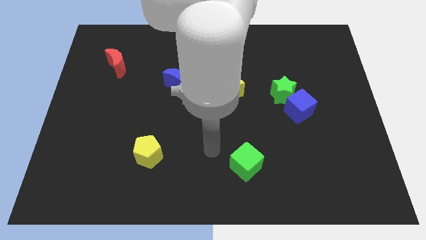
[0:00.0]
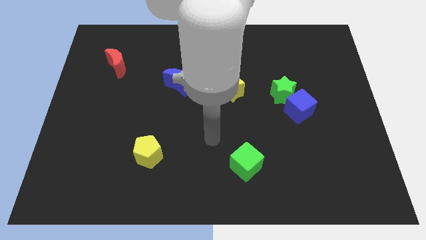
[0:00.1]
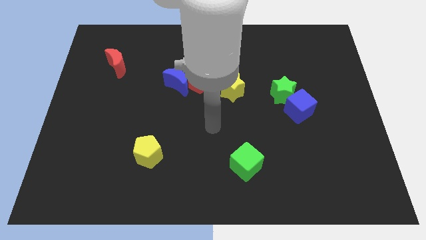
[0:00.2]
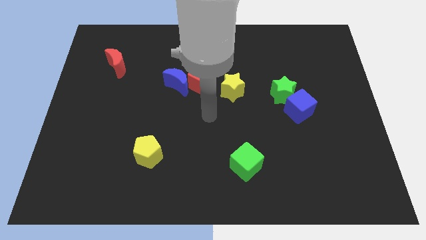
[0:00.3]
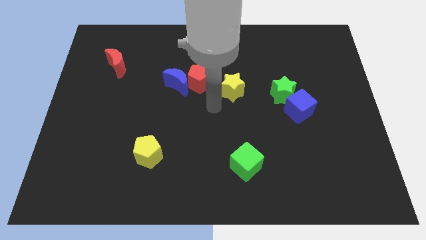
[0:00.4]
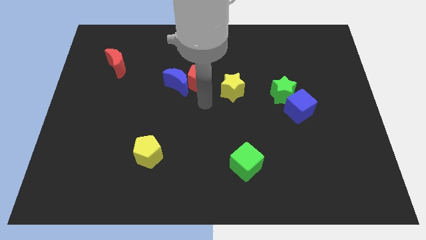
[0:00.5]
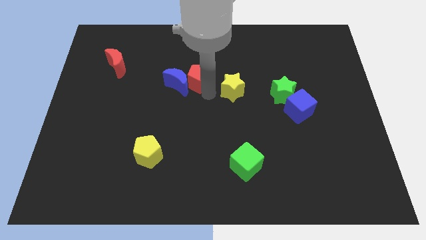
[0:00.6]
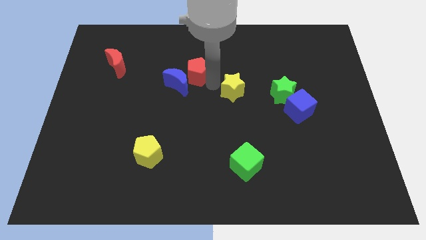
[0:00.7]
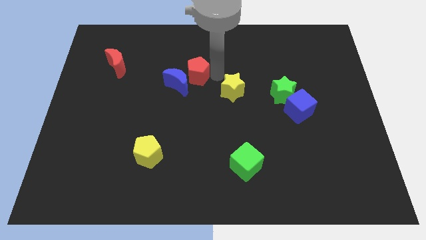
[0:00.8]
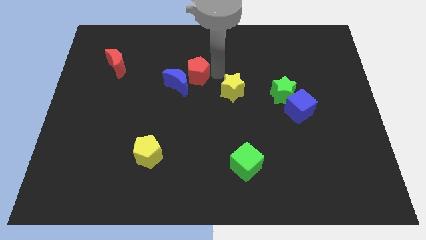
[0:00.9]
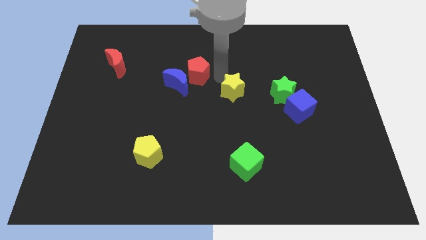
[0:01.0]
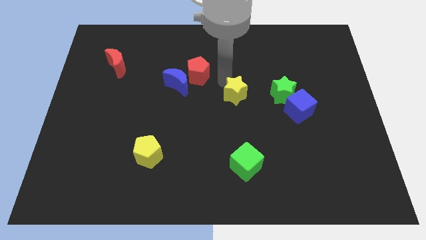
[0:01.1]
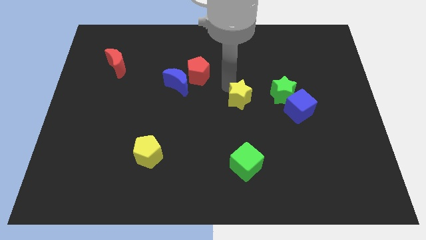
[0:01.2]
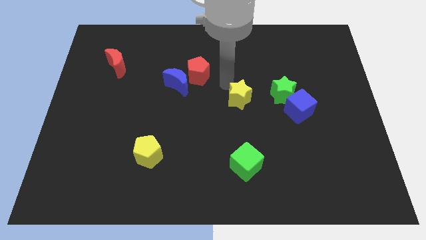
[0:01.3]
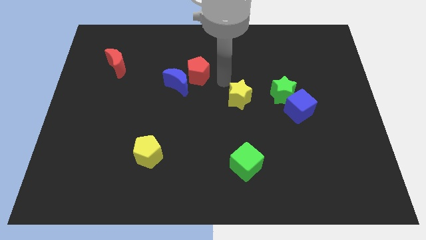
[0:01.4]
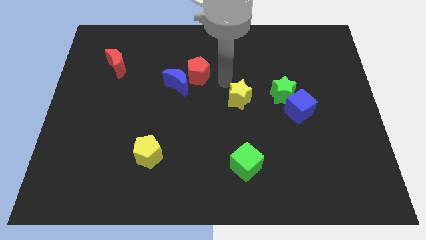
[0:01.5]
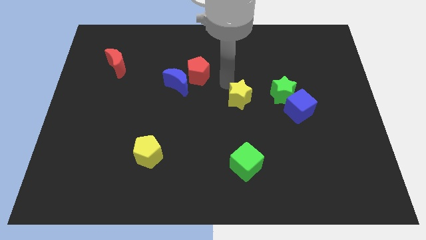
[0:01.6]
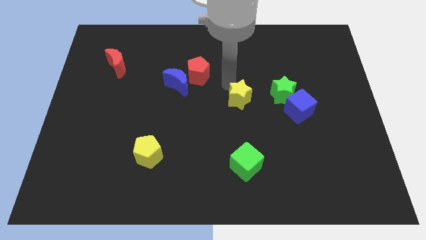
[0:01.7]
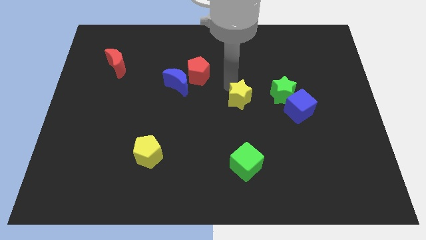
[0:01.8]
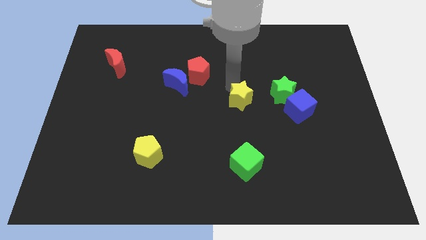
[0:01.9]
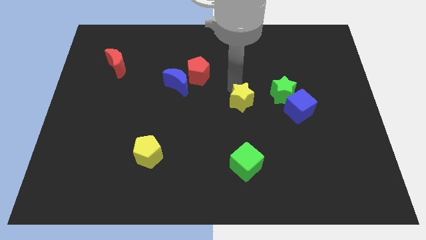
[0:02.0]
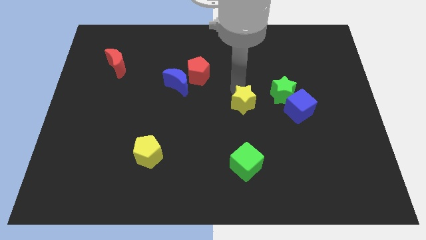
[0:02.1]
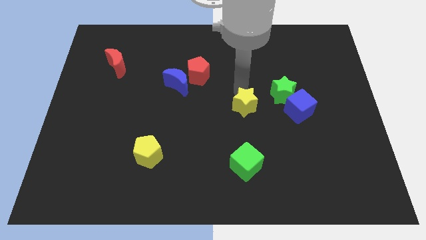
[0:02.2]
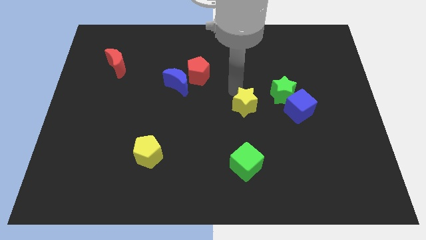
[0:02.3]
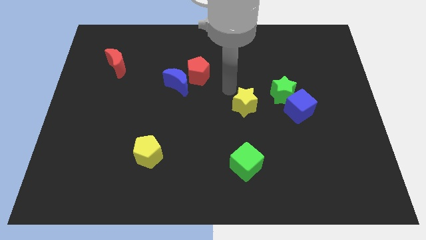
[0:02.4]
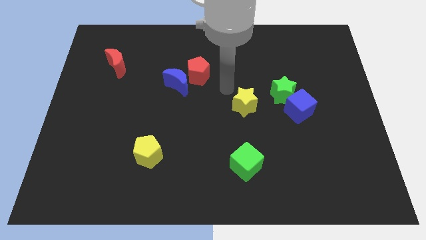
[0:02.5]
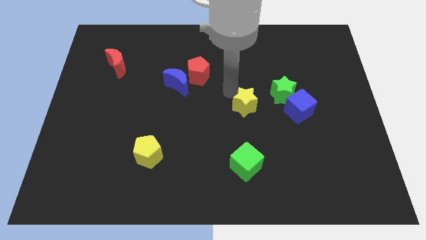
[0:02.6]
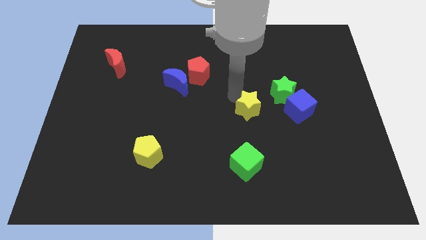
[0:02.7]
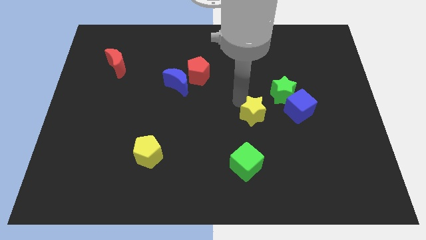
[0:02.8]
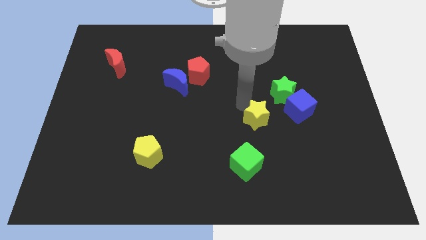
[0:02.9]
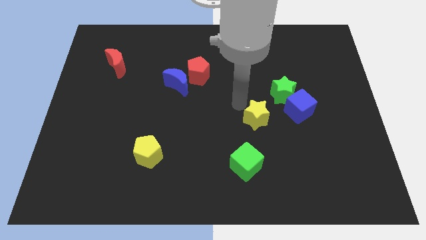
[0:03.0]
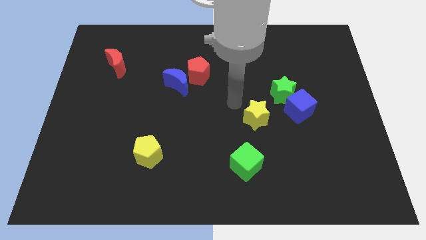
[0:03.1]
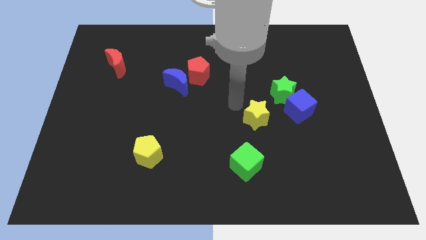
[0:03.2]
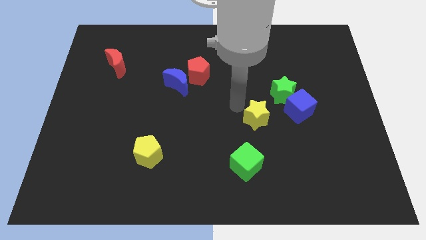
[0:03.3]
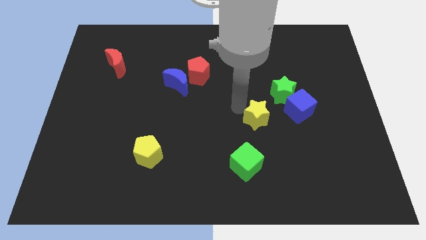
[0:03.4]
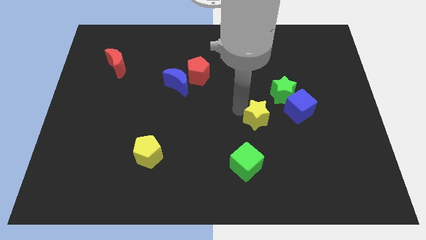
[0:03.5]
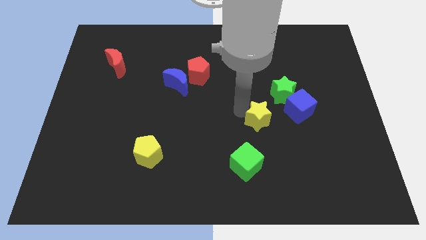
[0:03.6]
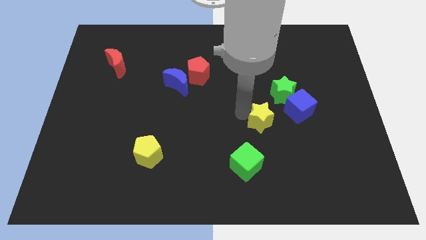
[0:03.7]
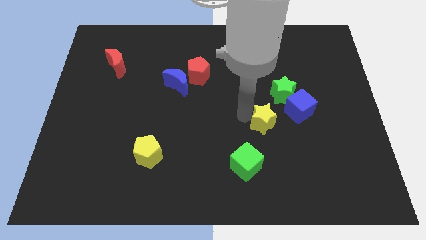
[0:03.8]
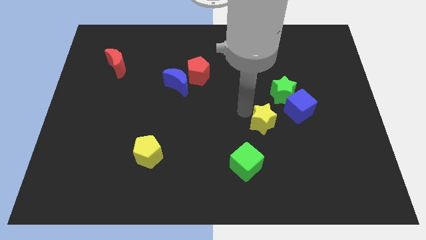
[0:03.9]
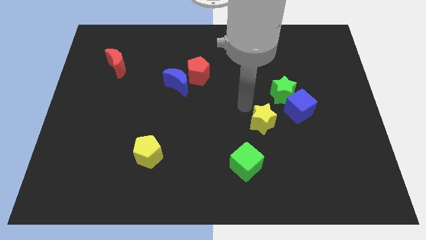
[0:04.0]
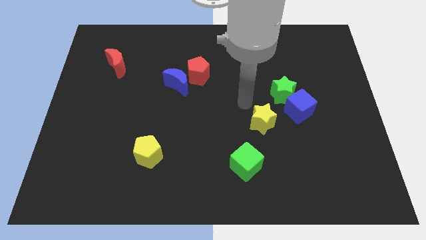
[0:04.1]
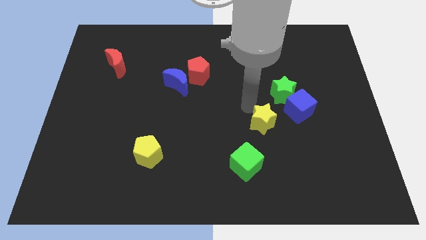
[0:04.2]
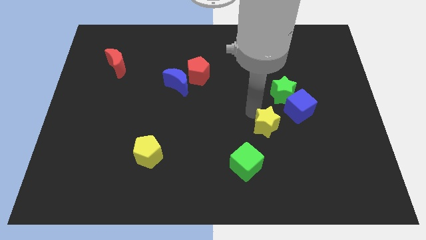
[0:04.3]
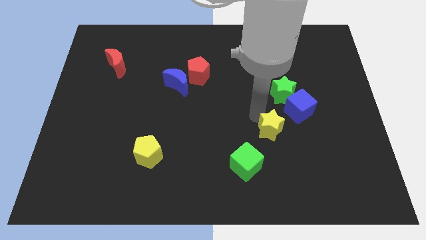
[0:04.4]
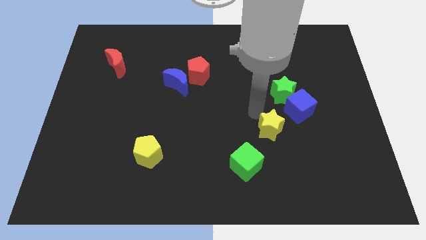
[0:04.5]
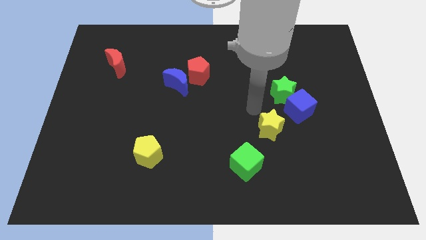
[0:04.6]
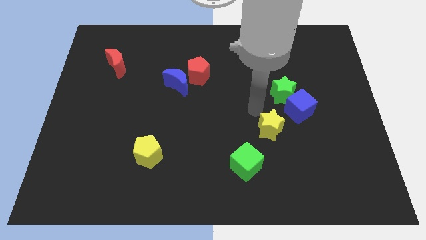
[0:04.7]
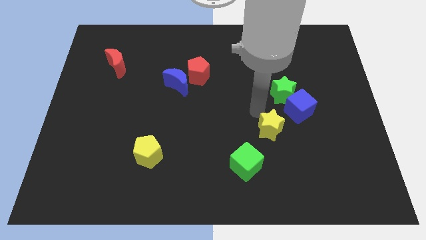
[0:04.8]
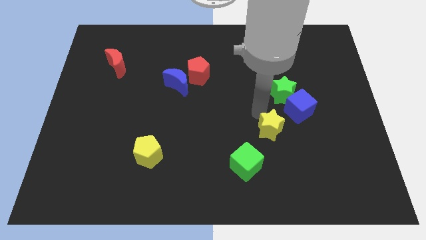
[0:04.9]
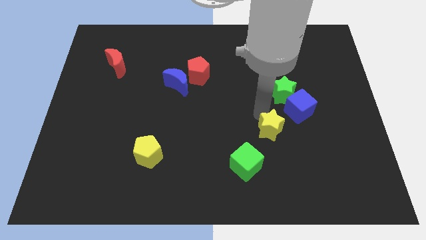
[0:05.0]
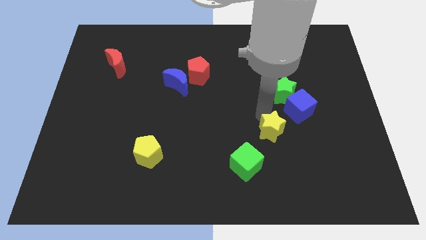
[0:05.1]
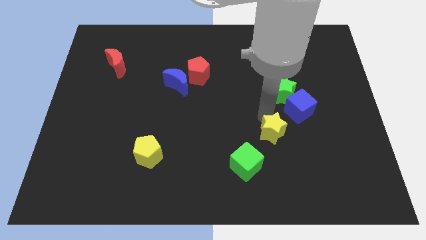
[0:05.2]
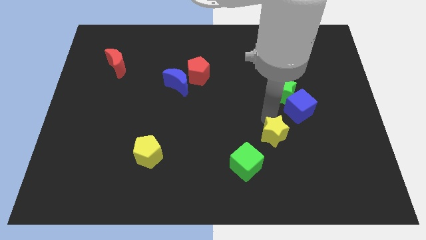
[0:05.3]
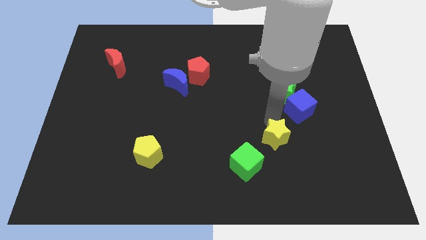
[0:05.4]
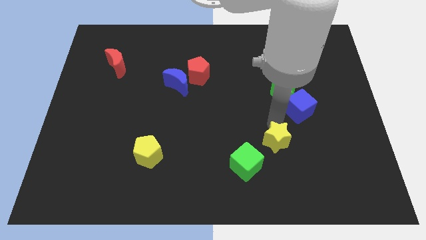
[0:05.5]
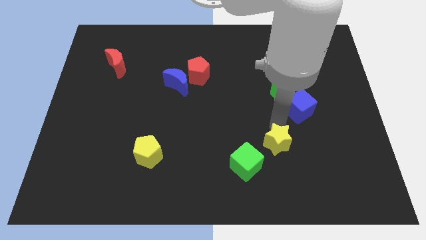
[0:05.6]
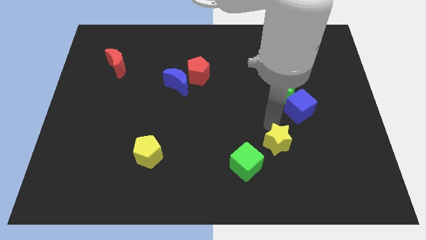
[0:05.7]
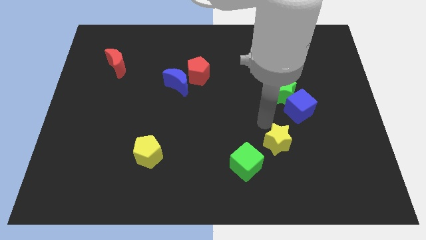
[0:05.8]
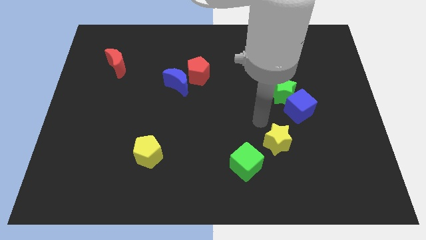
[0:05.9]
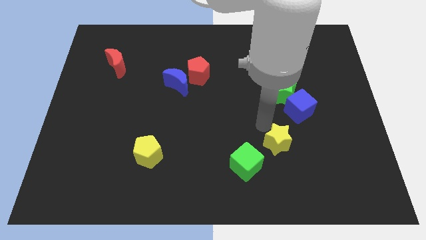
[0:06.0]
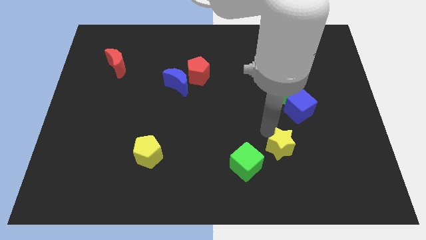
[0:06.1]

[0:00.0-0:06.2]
push the yellow star just right of the green cube
